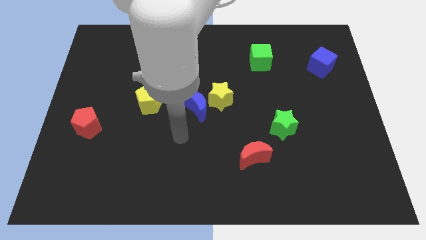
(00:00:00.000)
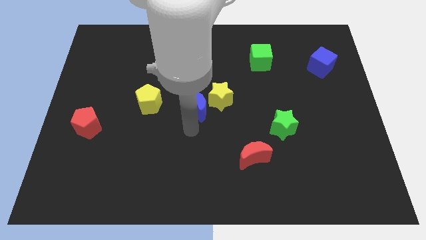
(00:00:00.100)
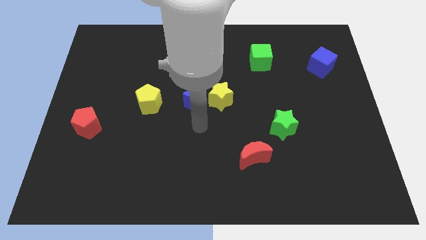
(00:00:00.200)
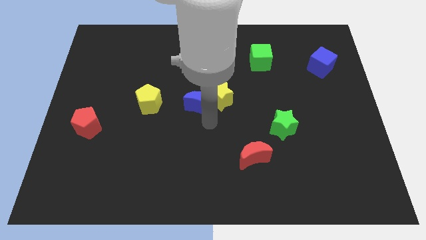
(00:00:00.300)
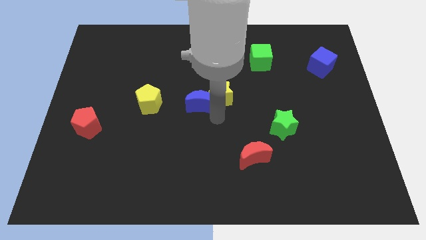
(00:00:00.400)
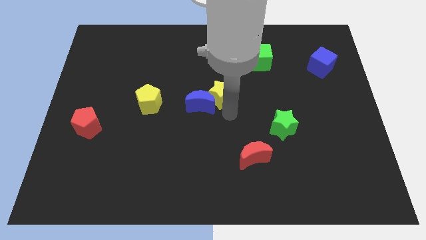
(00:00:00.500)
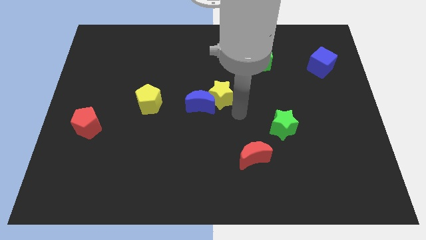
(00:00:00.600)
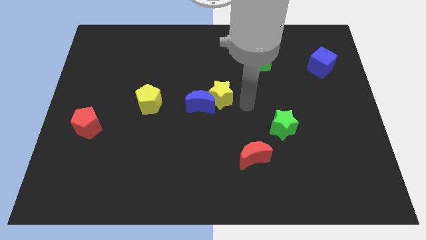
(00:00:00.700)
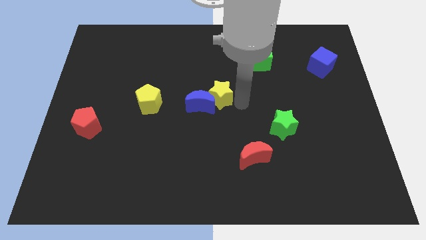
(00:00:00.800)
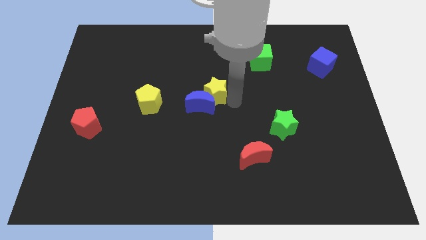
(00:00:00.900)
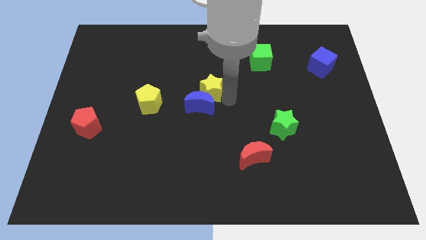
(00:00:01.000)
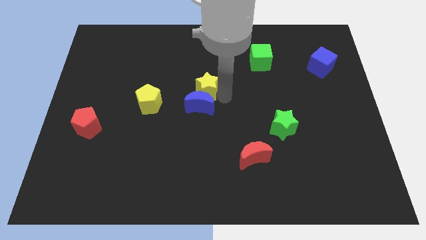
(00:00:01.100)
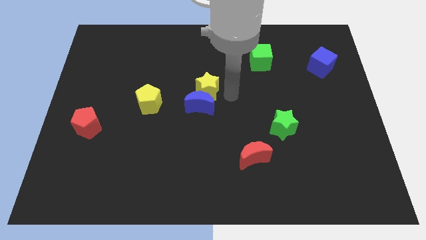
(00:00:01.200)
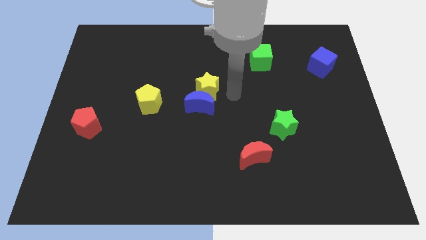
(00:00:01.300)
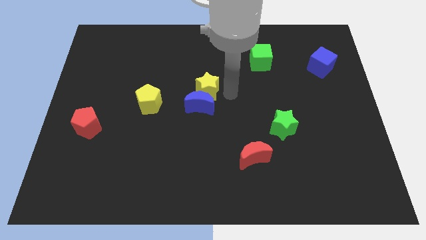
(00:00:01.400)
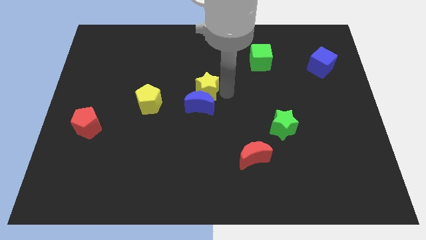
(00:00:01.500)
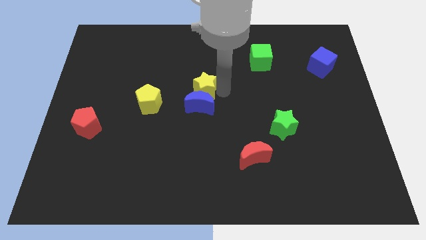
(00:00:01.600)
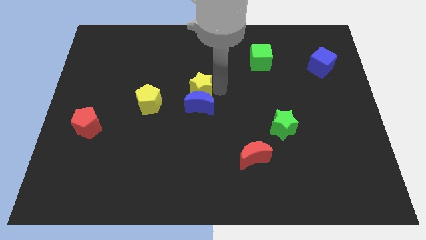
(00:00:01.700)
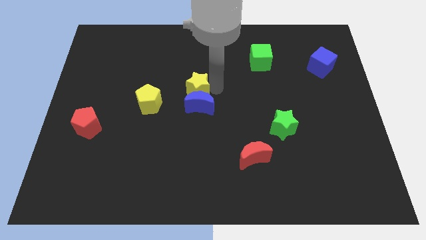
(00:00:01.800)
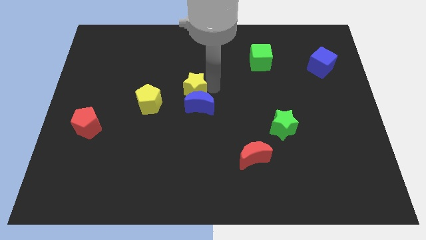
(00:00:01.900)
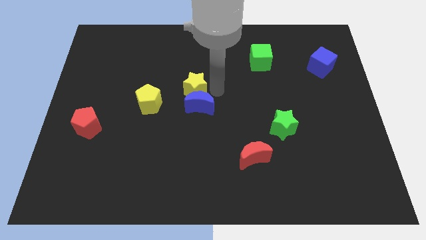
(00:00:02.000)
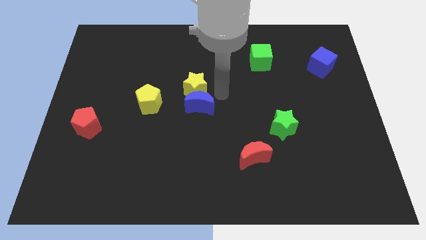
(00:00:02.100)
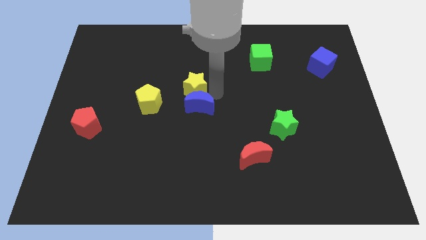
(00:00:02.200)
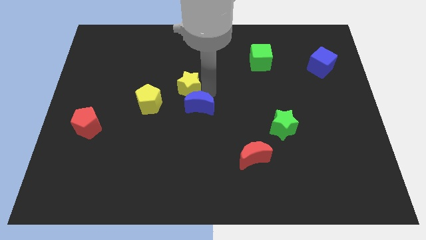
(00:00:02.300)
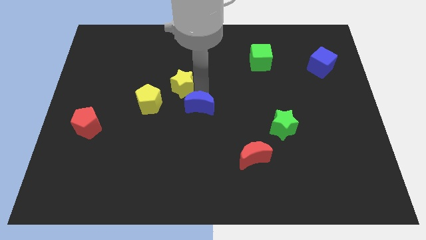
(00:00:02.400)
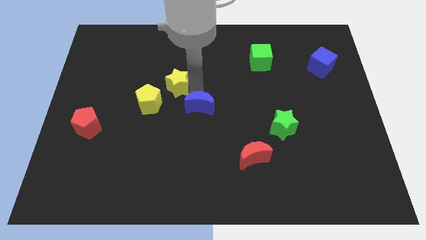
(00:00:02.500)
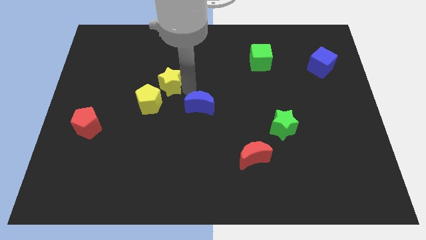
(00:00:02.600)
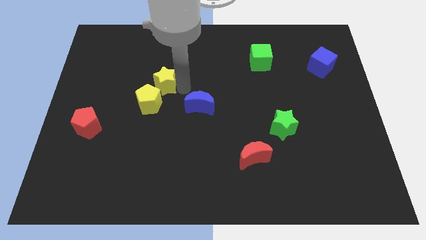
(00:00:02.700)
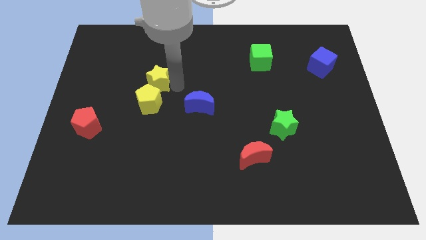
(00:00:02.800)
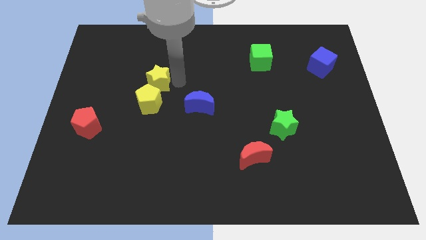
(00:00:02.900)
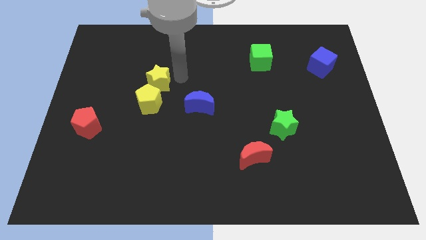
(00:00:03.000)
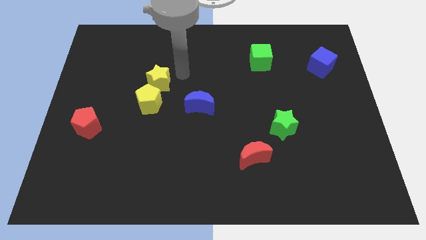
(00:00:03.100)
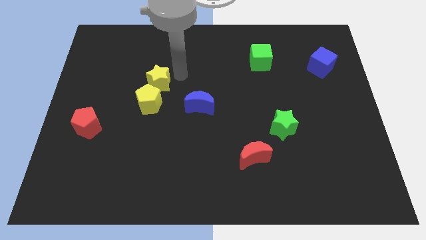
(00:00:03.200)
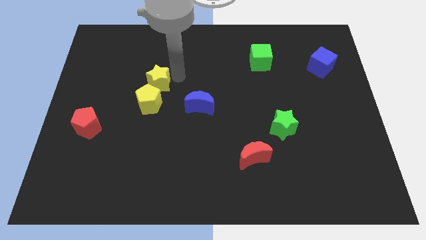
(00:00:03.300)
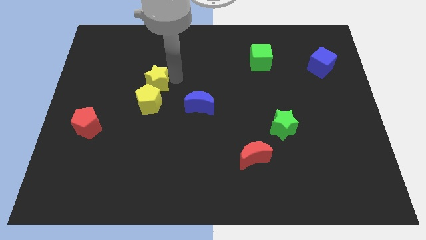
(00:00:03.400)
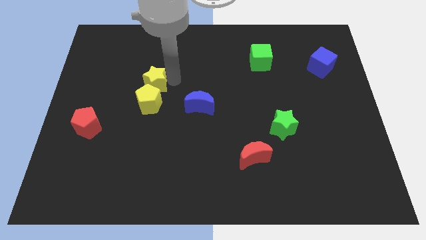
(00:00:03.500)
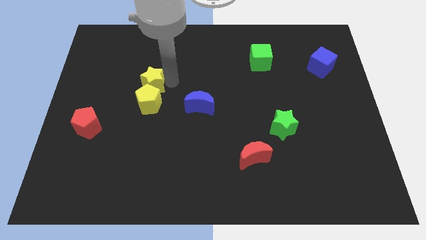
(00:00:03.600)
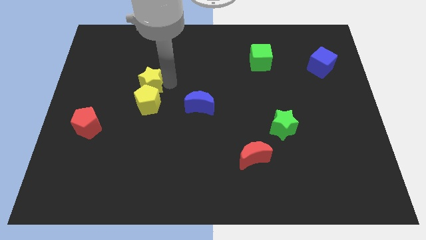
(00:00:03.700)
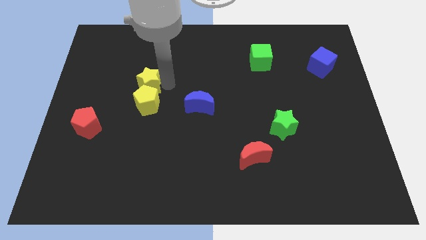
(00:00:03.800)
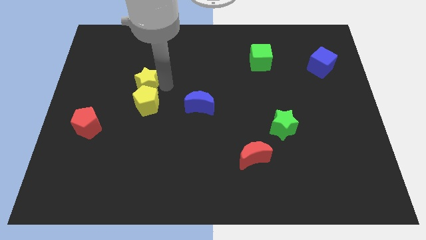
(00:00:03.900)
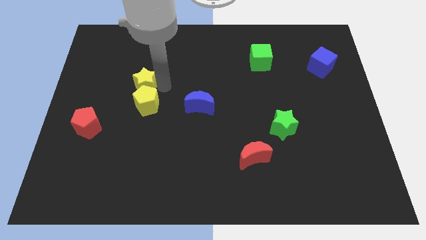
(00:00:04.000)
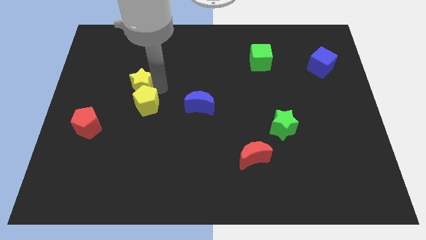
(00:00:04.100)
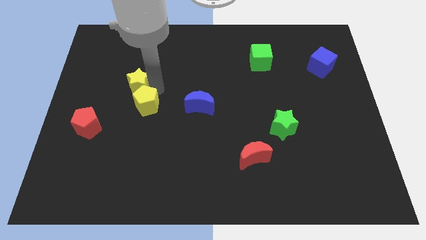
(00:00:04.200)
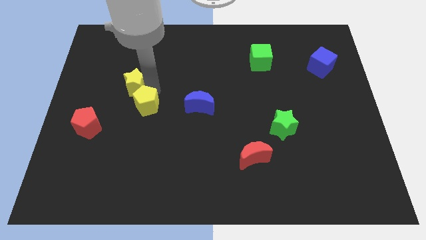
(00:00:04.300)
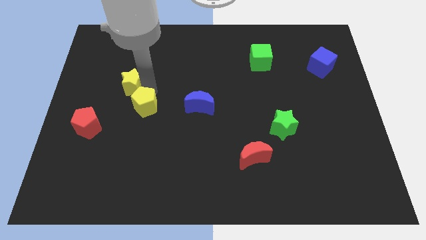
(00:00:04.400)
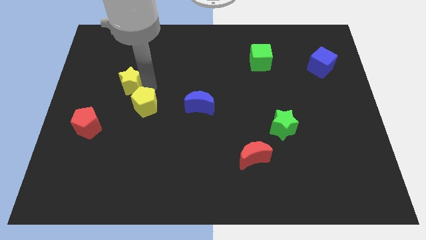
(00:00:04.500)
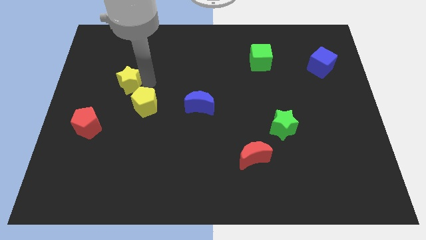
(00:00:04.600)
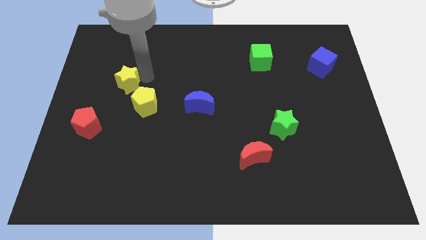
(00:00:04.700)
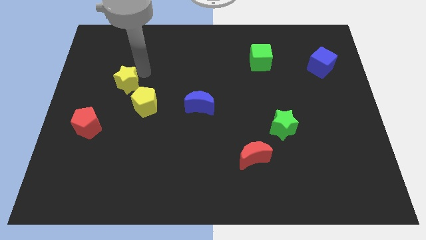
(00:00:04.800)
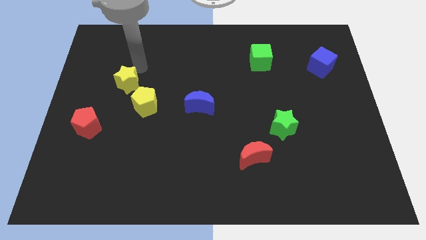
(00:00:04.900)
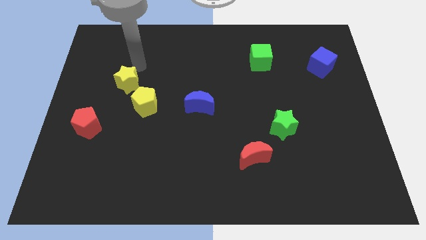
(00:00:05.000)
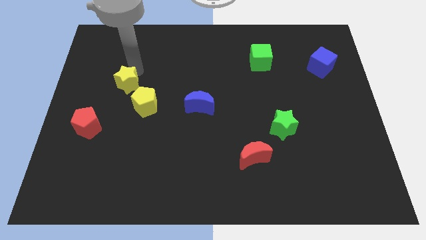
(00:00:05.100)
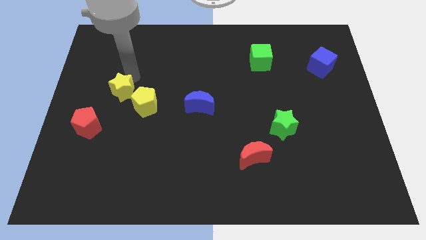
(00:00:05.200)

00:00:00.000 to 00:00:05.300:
put the yellow star to the top right of the red pentagon

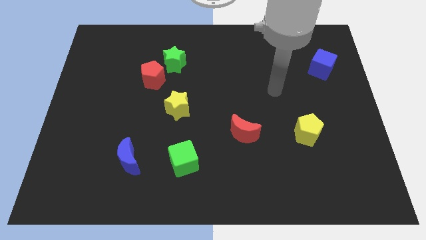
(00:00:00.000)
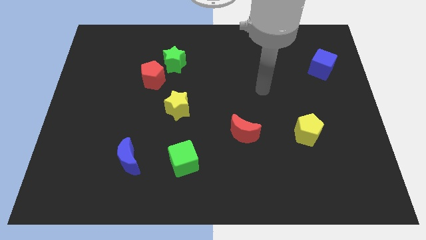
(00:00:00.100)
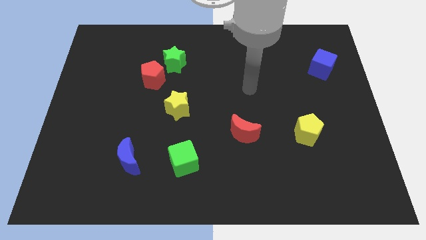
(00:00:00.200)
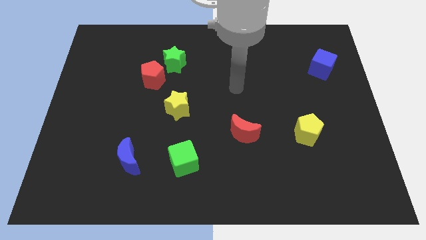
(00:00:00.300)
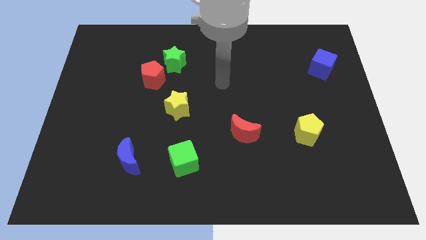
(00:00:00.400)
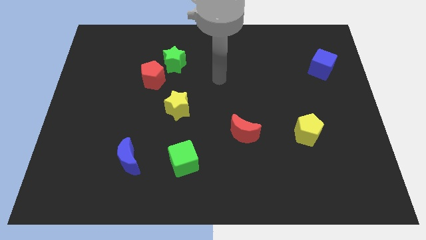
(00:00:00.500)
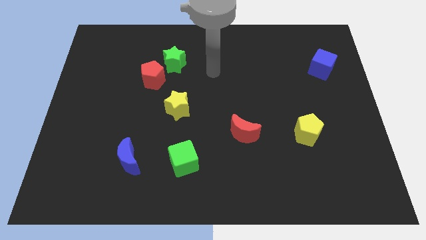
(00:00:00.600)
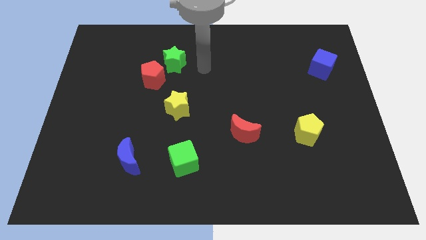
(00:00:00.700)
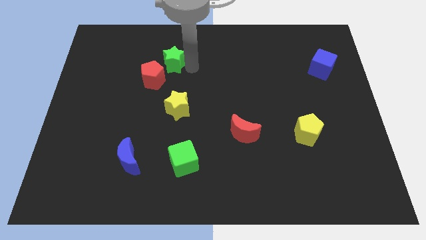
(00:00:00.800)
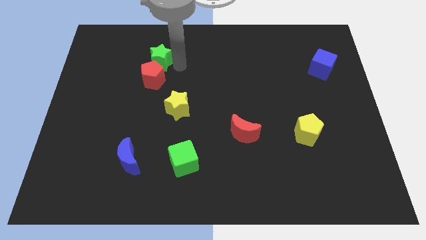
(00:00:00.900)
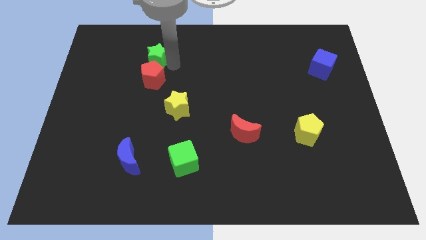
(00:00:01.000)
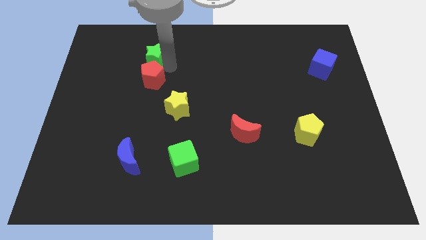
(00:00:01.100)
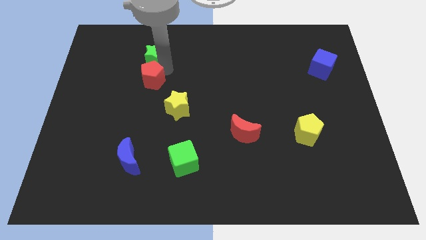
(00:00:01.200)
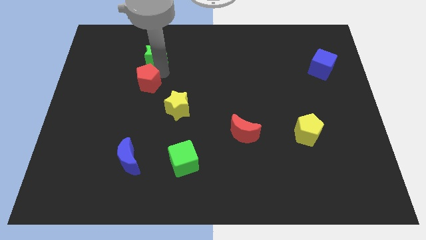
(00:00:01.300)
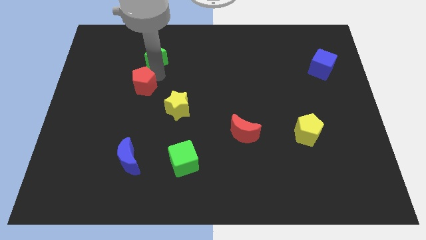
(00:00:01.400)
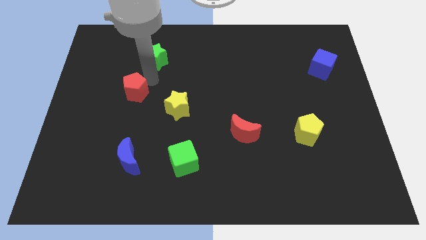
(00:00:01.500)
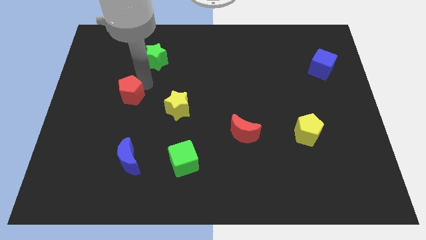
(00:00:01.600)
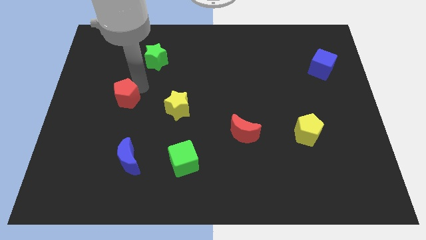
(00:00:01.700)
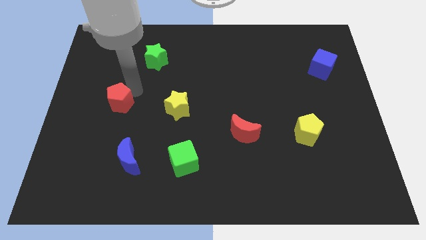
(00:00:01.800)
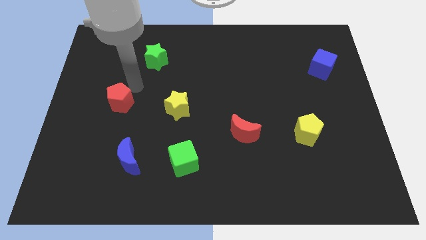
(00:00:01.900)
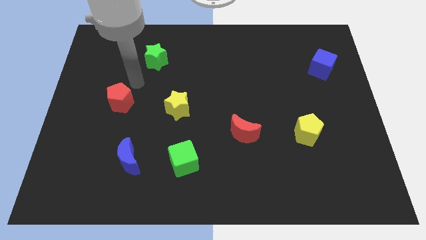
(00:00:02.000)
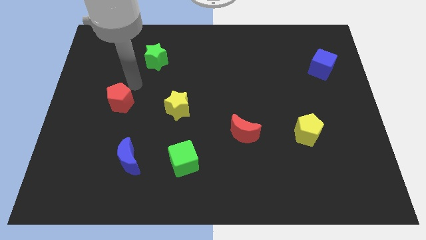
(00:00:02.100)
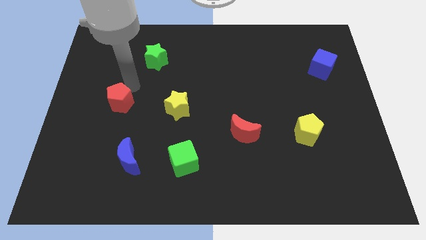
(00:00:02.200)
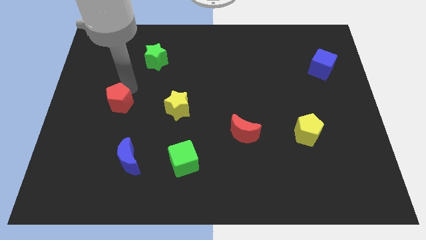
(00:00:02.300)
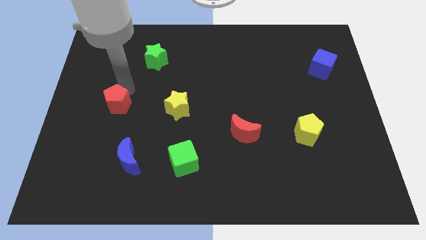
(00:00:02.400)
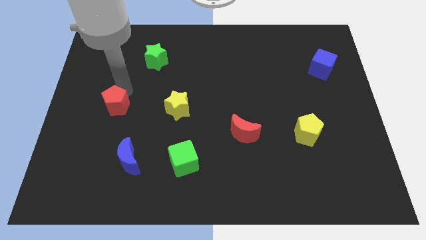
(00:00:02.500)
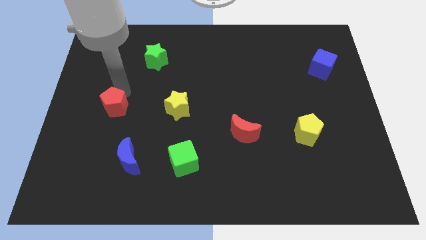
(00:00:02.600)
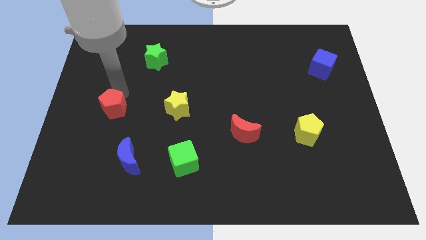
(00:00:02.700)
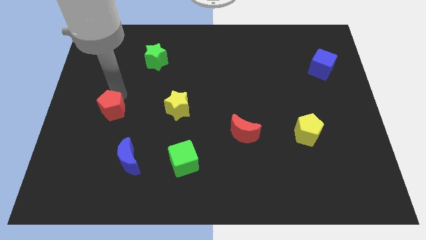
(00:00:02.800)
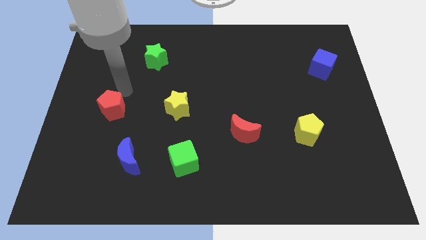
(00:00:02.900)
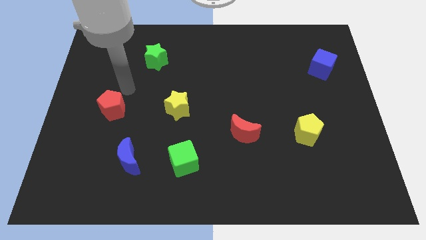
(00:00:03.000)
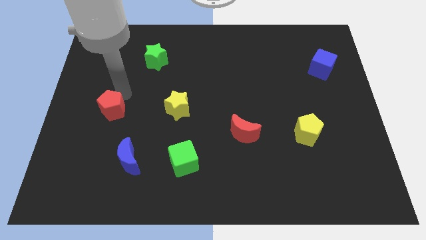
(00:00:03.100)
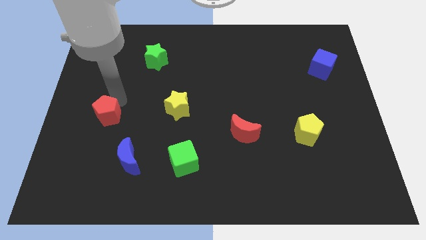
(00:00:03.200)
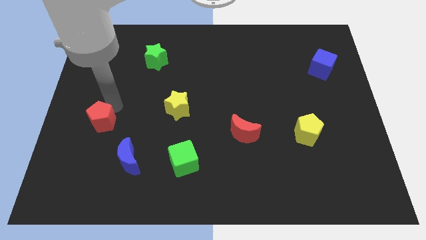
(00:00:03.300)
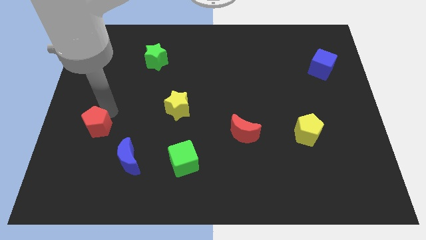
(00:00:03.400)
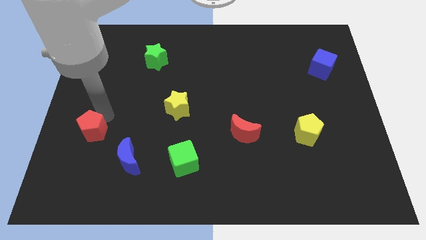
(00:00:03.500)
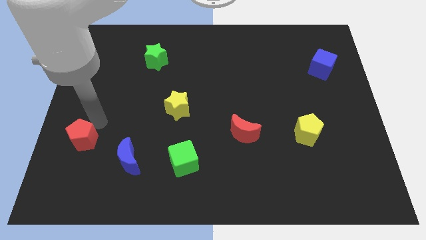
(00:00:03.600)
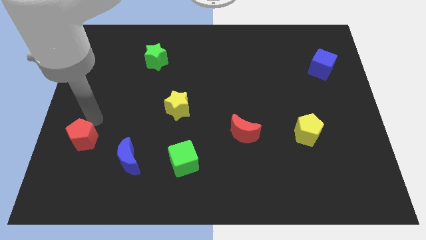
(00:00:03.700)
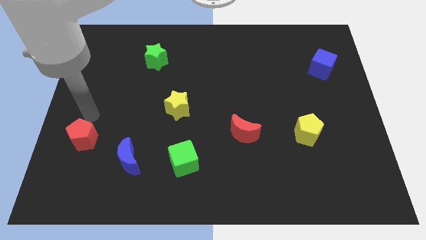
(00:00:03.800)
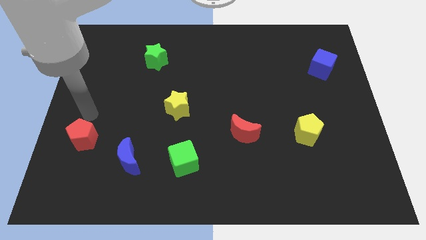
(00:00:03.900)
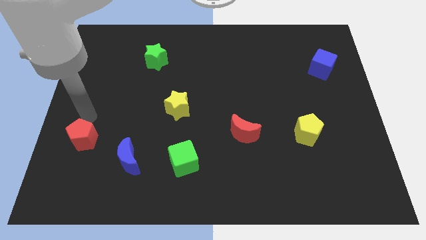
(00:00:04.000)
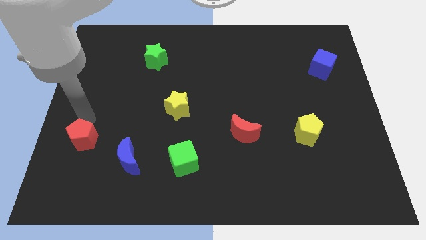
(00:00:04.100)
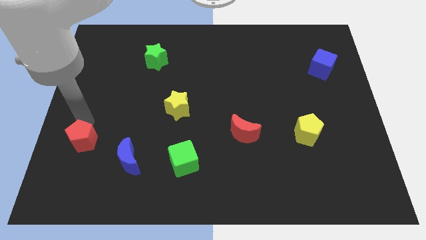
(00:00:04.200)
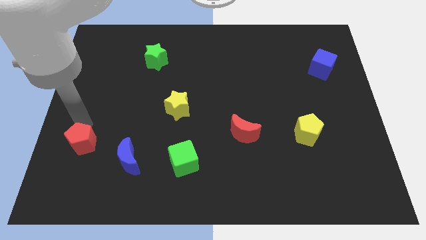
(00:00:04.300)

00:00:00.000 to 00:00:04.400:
move the red pentagon to the left of the blue moon
